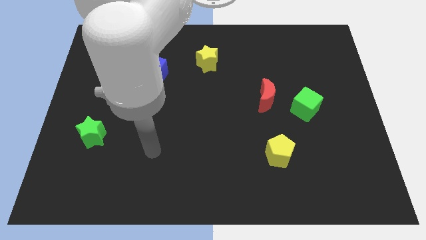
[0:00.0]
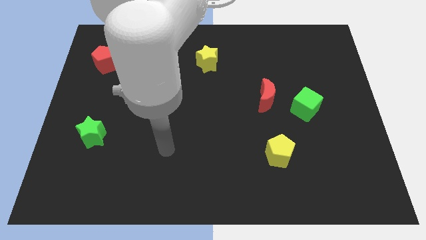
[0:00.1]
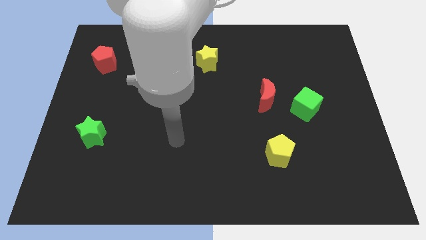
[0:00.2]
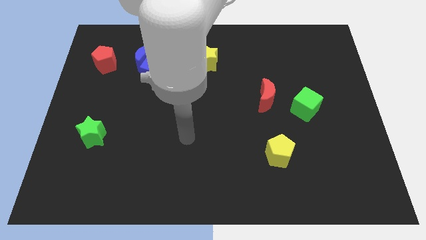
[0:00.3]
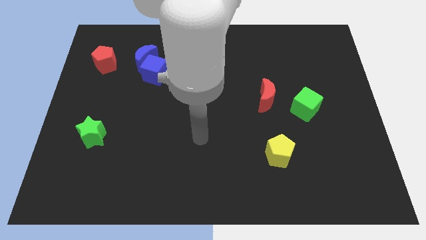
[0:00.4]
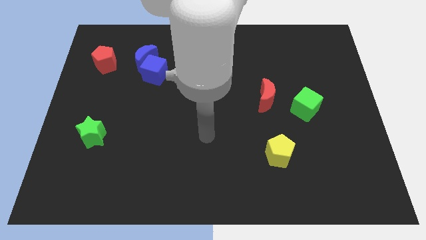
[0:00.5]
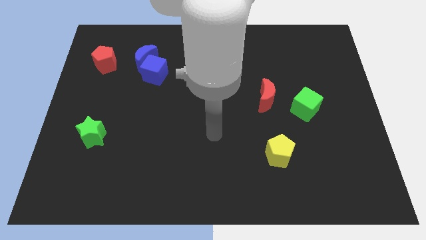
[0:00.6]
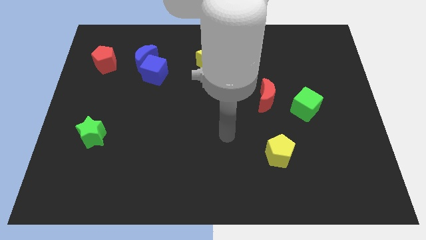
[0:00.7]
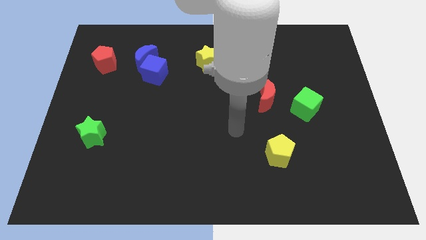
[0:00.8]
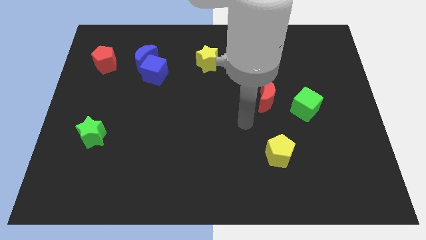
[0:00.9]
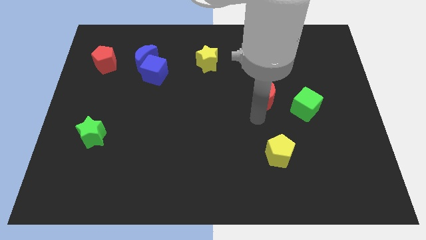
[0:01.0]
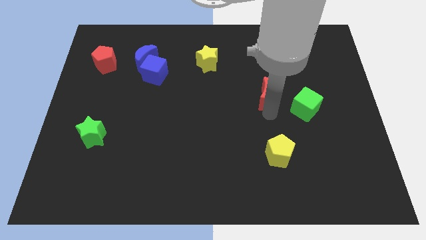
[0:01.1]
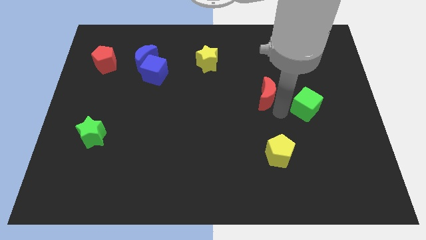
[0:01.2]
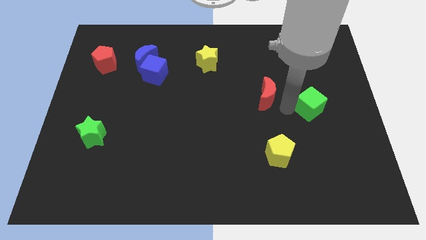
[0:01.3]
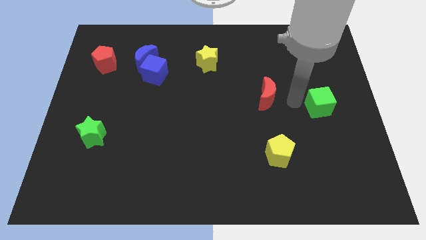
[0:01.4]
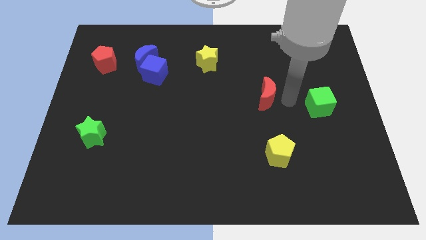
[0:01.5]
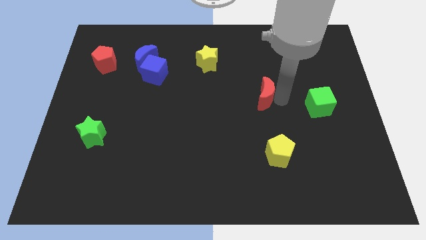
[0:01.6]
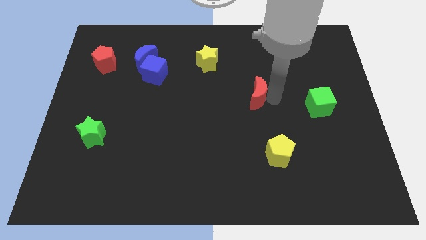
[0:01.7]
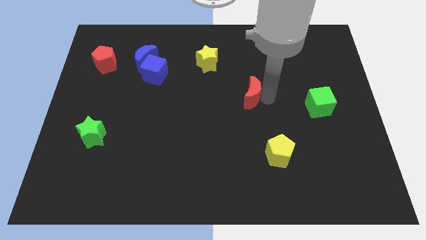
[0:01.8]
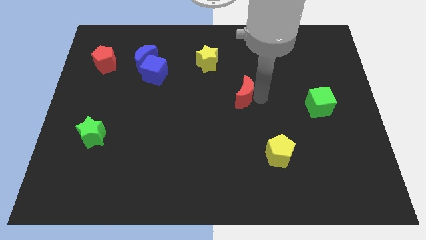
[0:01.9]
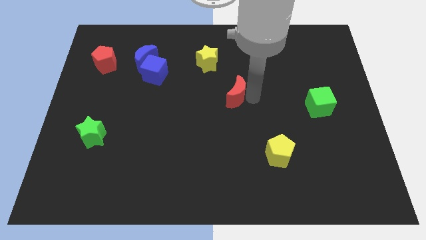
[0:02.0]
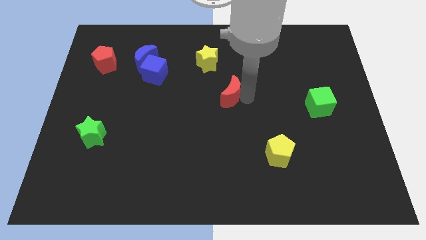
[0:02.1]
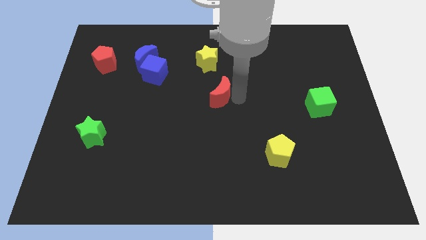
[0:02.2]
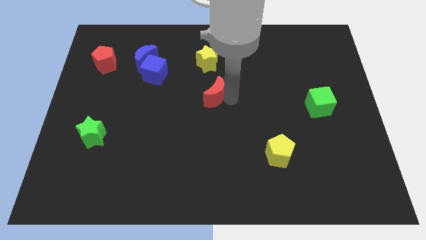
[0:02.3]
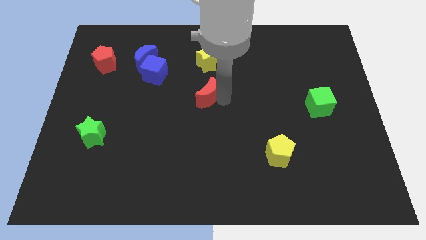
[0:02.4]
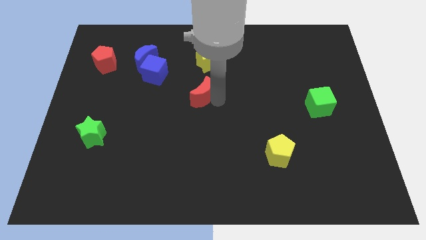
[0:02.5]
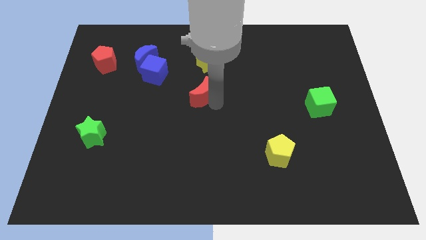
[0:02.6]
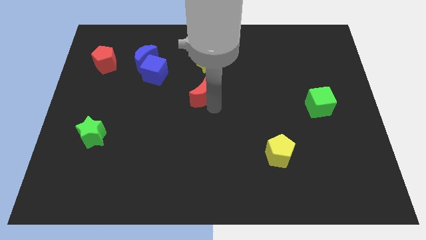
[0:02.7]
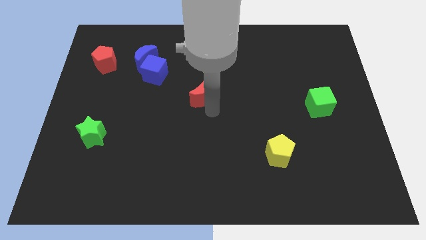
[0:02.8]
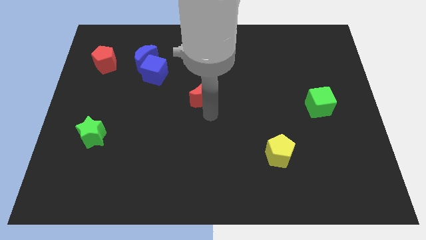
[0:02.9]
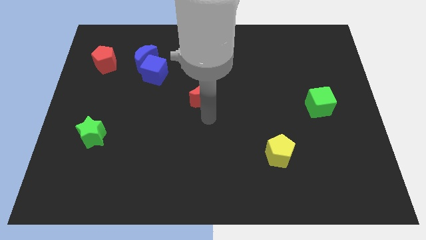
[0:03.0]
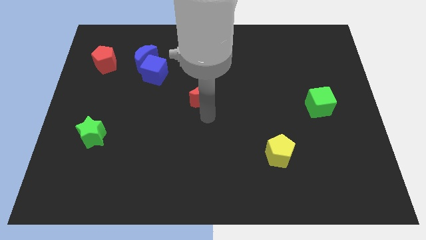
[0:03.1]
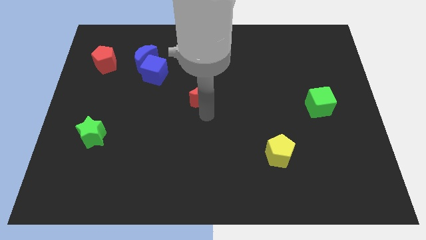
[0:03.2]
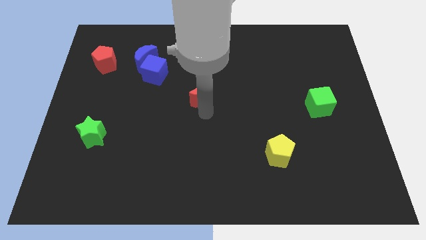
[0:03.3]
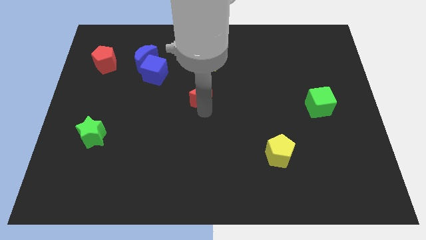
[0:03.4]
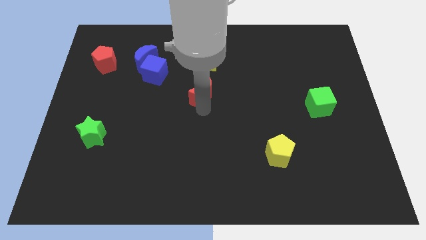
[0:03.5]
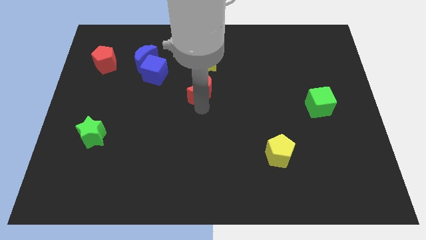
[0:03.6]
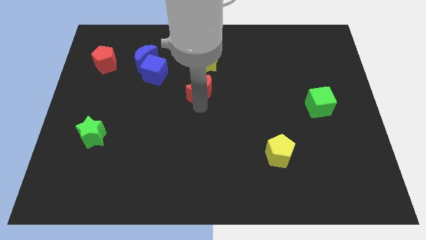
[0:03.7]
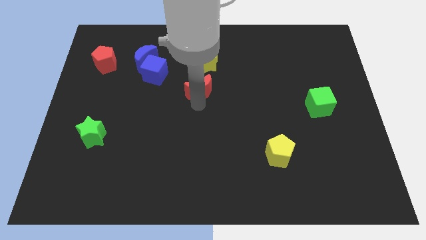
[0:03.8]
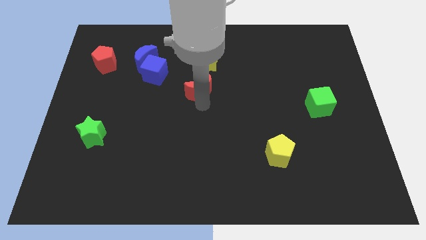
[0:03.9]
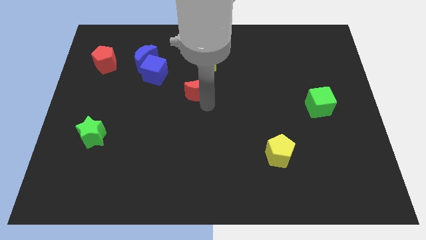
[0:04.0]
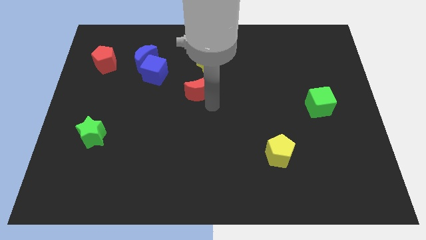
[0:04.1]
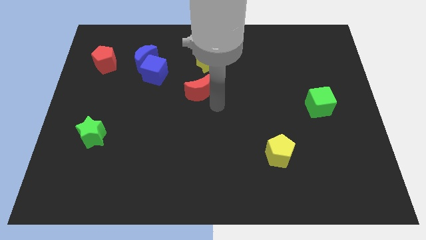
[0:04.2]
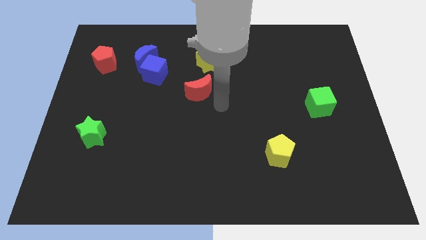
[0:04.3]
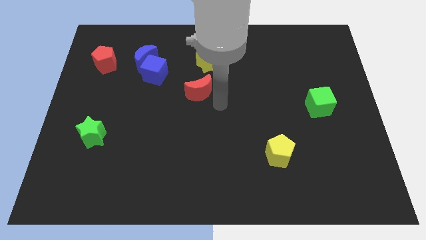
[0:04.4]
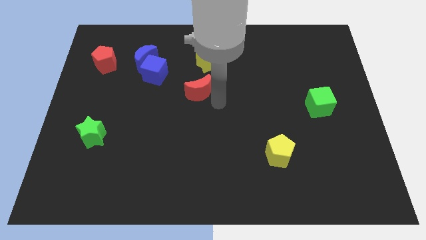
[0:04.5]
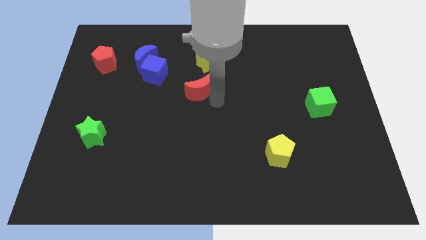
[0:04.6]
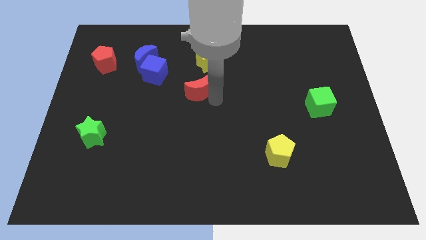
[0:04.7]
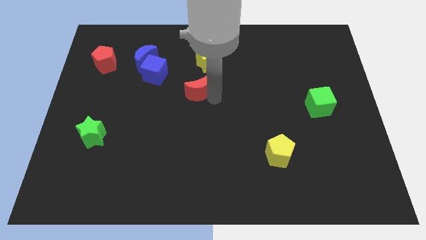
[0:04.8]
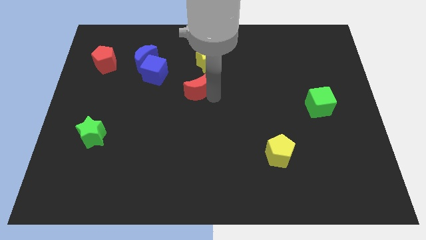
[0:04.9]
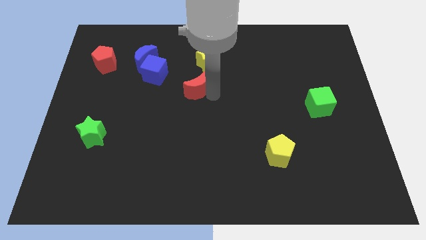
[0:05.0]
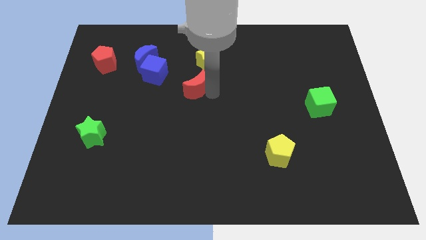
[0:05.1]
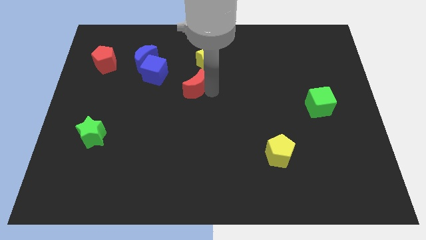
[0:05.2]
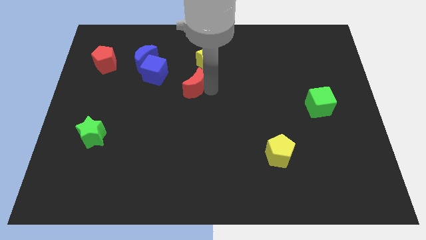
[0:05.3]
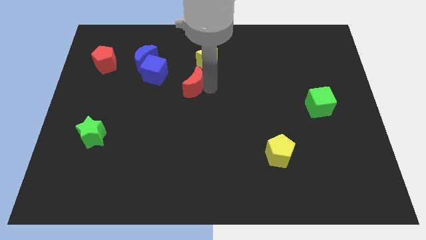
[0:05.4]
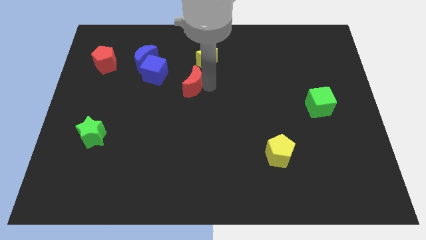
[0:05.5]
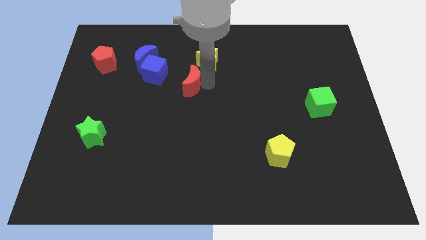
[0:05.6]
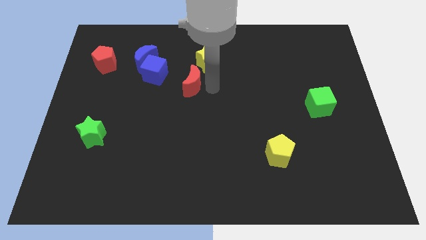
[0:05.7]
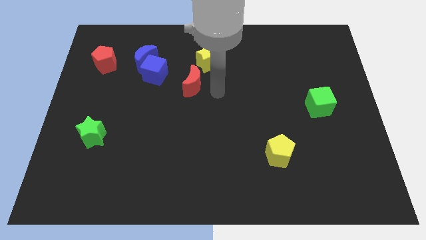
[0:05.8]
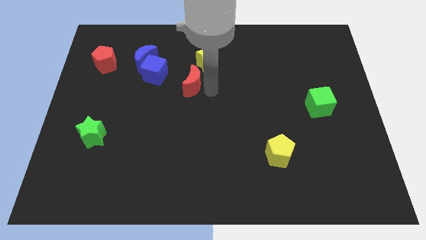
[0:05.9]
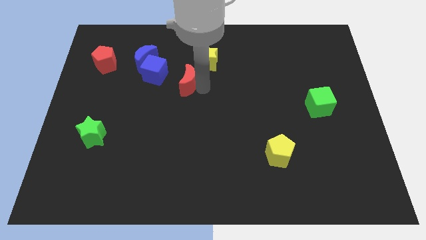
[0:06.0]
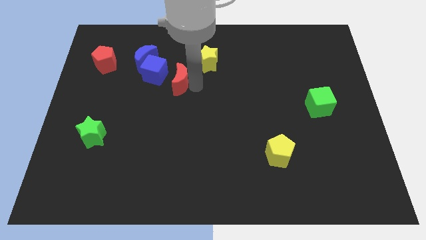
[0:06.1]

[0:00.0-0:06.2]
push the red moon to the bottom right side of the blue moon

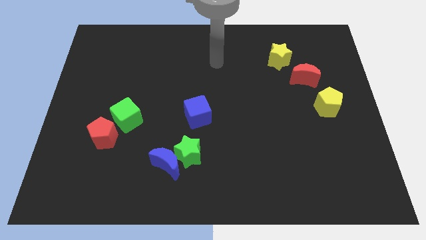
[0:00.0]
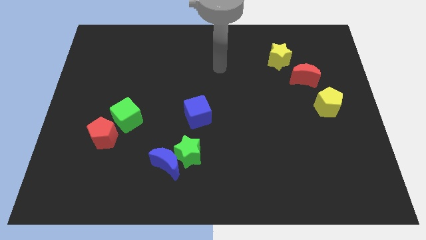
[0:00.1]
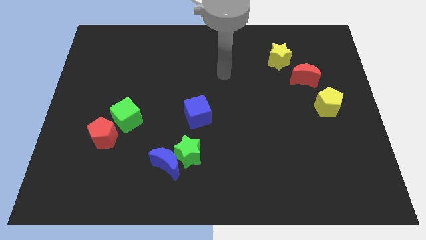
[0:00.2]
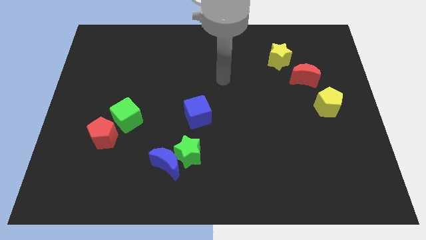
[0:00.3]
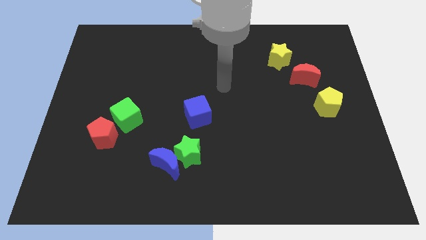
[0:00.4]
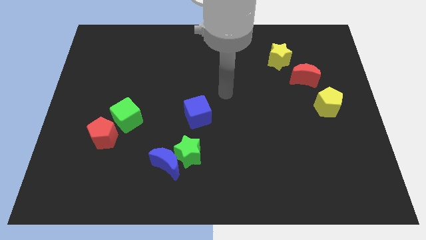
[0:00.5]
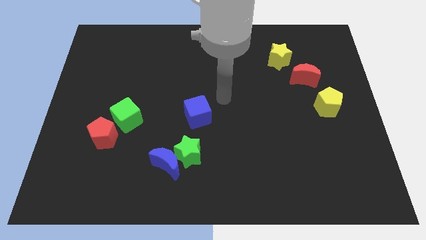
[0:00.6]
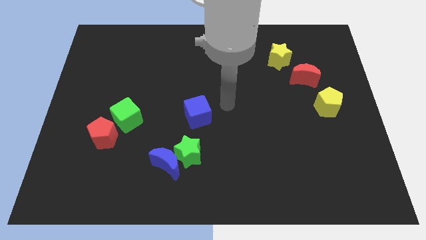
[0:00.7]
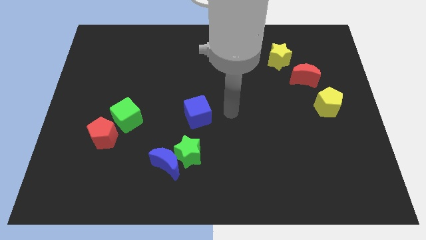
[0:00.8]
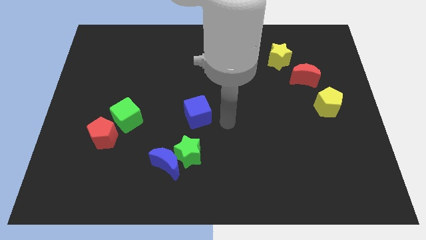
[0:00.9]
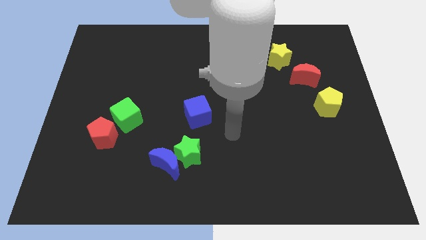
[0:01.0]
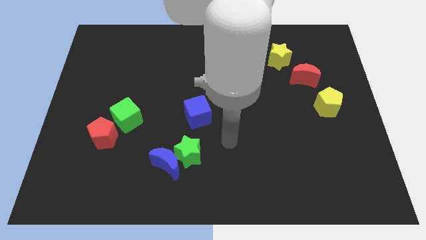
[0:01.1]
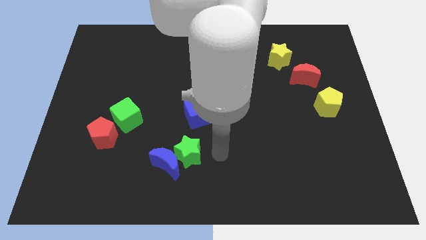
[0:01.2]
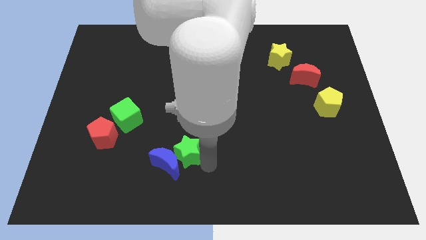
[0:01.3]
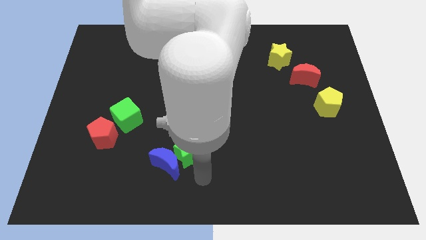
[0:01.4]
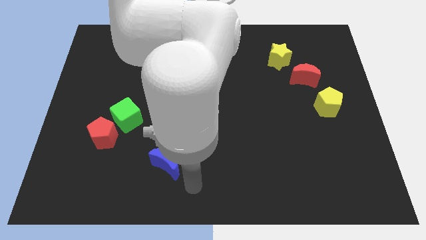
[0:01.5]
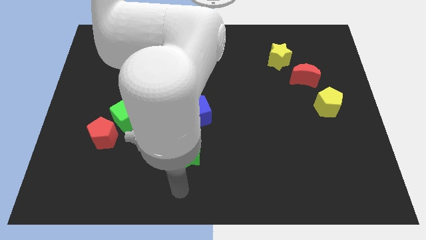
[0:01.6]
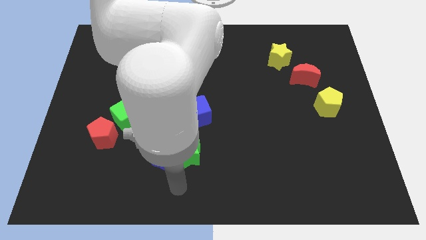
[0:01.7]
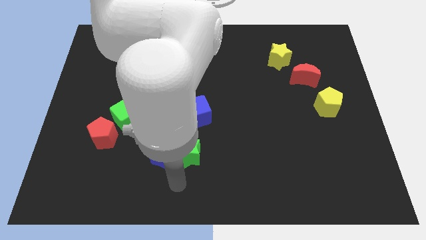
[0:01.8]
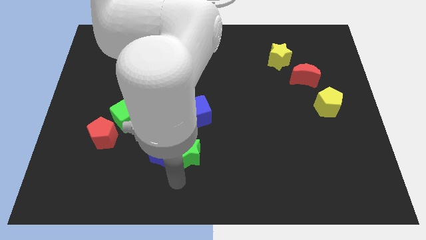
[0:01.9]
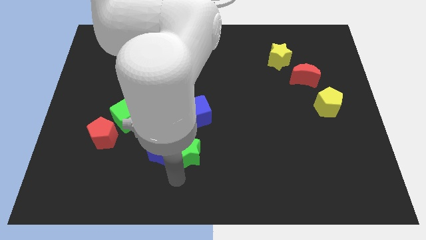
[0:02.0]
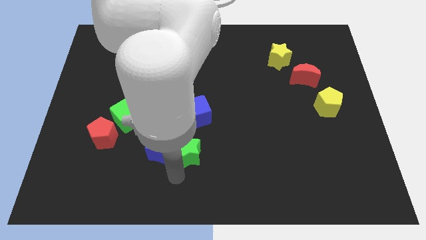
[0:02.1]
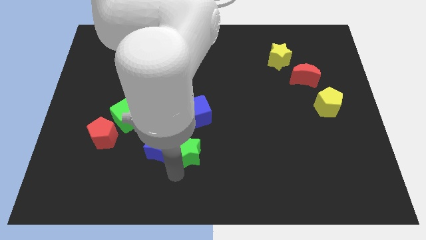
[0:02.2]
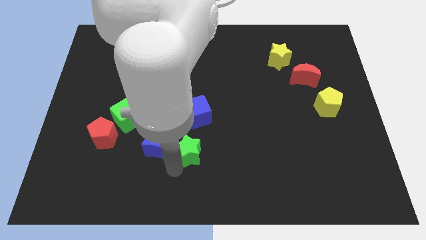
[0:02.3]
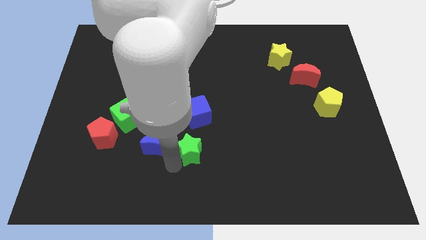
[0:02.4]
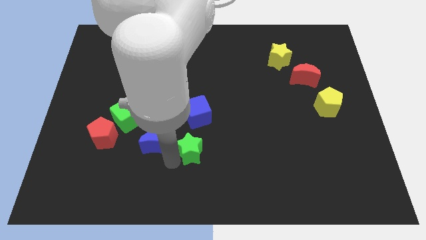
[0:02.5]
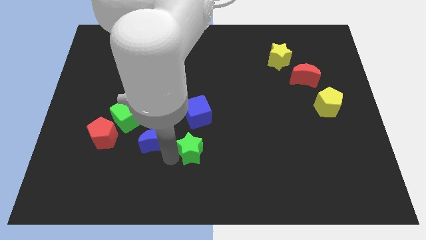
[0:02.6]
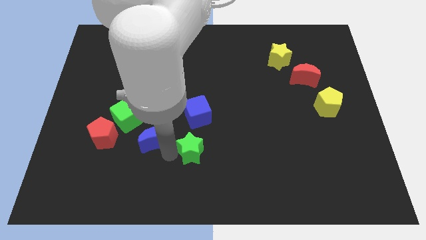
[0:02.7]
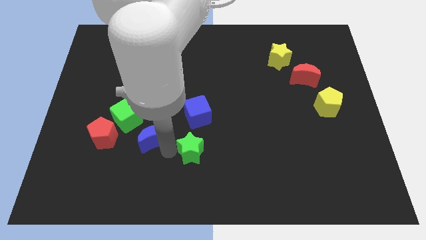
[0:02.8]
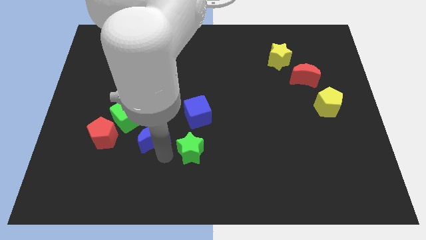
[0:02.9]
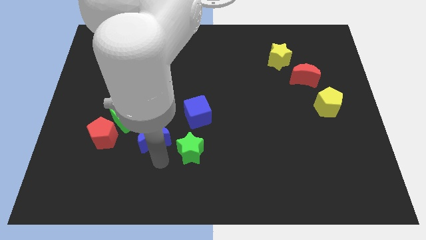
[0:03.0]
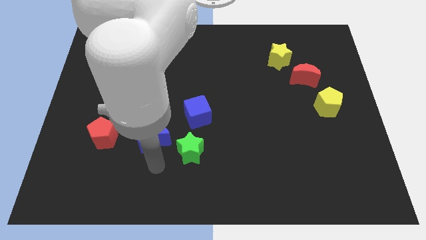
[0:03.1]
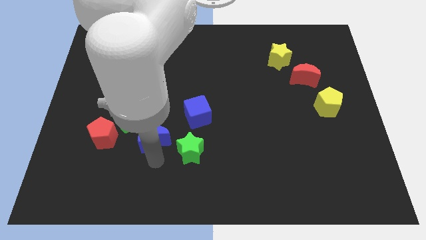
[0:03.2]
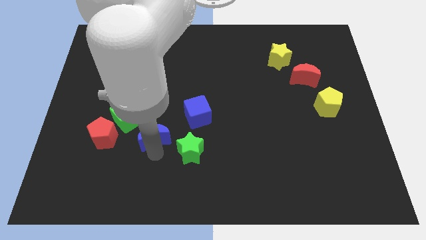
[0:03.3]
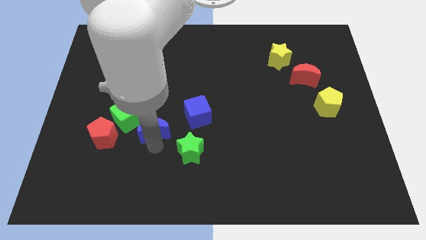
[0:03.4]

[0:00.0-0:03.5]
put the blue moon to the left of the blue cube
